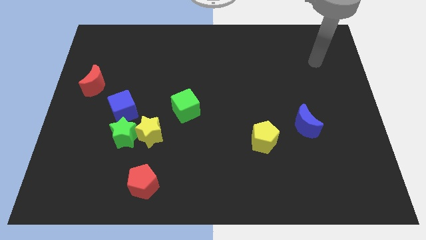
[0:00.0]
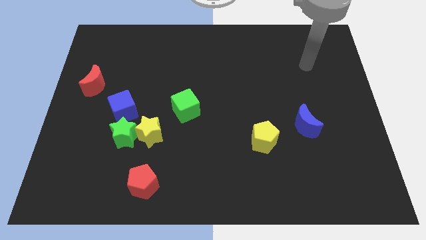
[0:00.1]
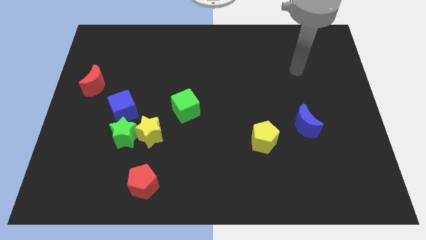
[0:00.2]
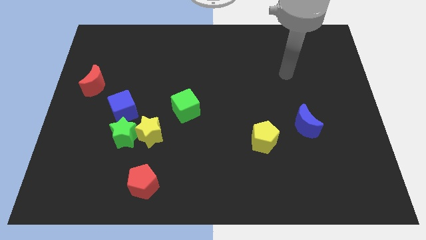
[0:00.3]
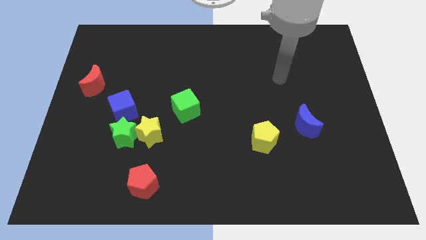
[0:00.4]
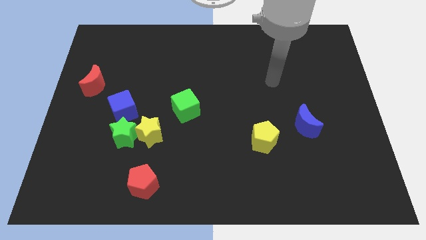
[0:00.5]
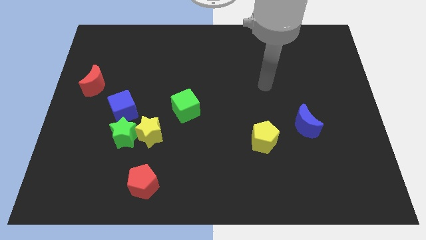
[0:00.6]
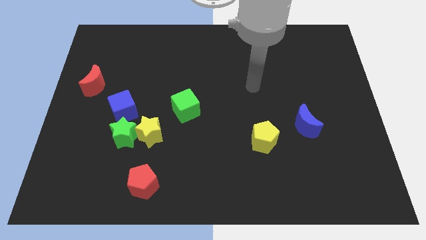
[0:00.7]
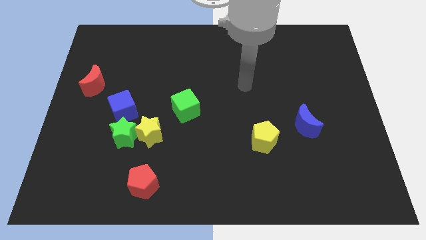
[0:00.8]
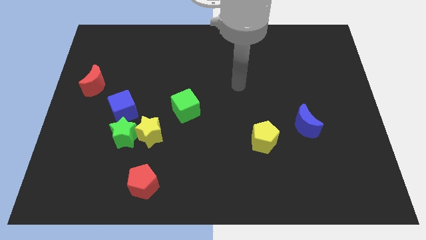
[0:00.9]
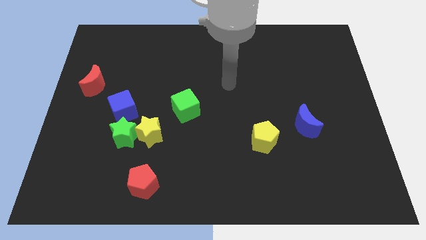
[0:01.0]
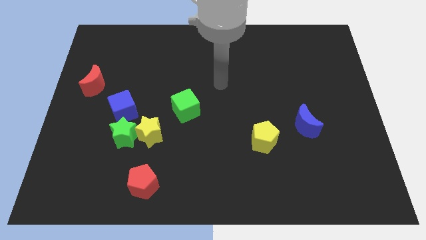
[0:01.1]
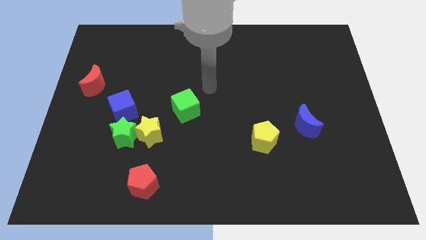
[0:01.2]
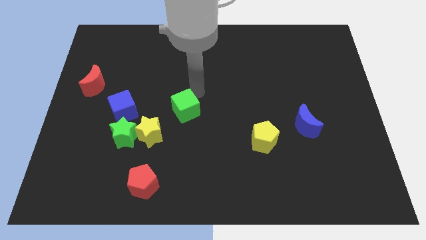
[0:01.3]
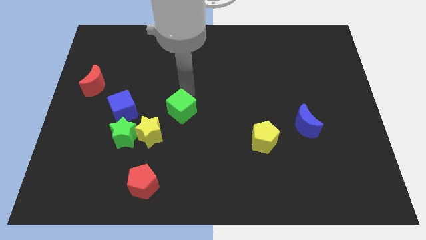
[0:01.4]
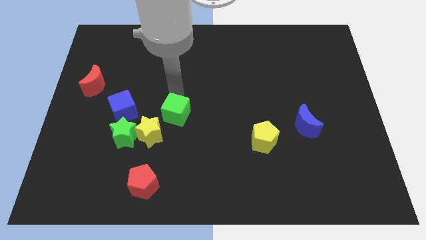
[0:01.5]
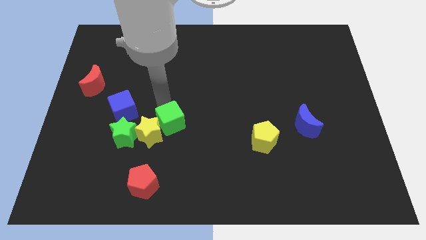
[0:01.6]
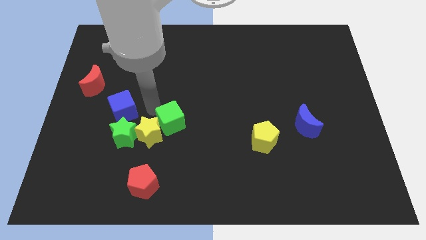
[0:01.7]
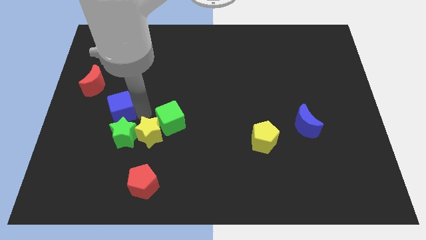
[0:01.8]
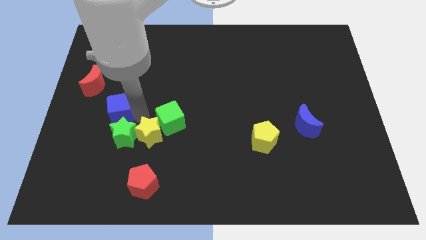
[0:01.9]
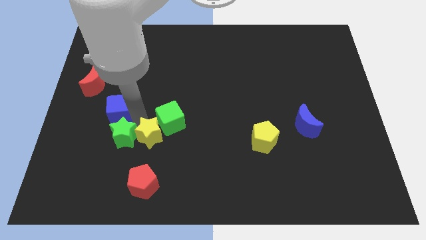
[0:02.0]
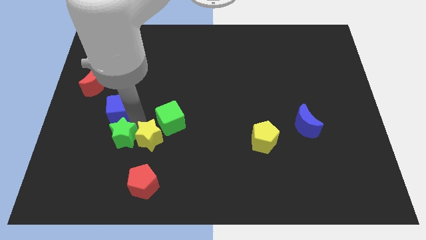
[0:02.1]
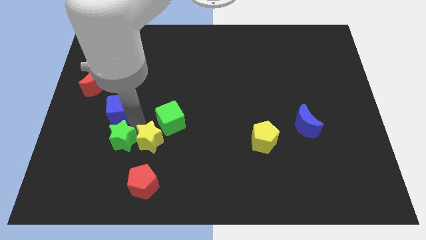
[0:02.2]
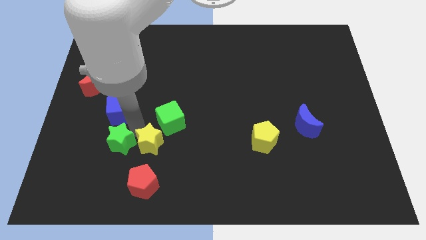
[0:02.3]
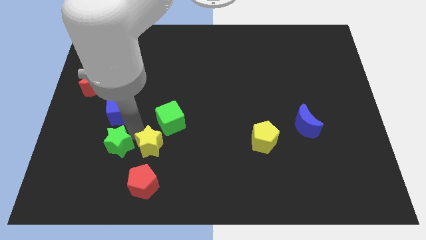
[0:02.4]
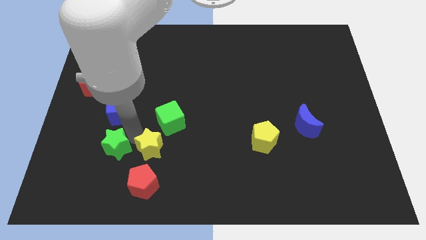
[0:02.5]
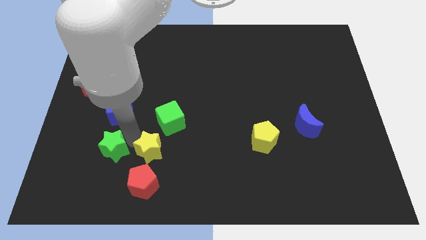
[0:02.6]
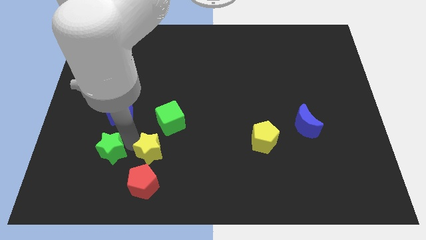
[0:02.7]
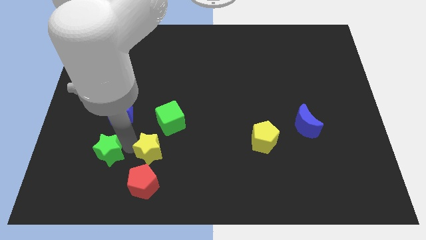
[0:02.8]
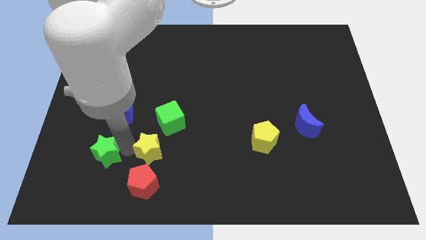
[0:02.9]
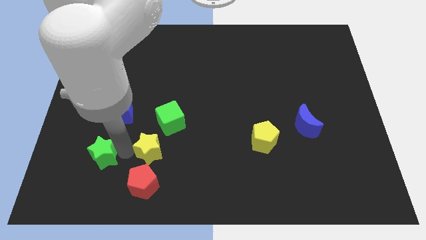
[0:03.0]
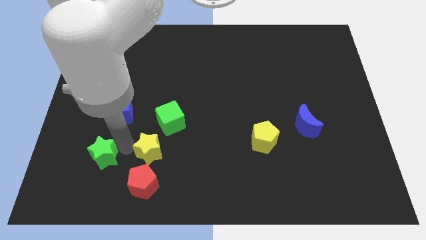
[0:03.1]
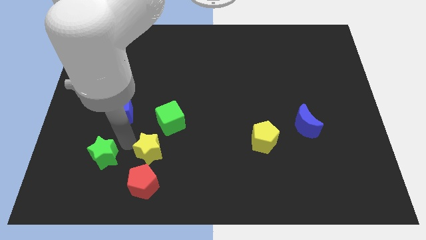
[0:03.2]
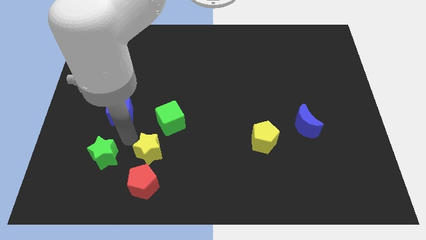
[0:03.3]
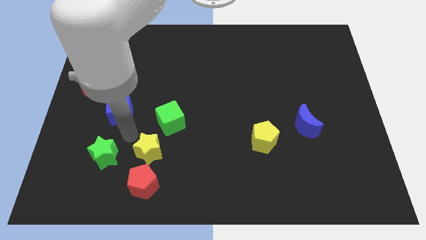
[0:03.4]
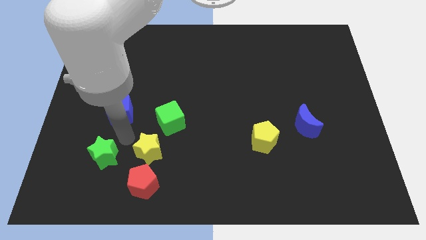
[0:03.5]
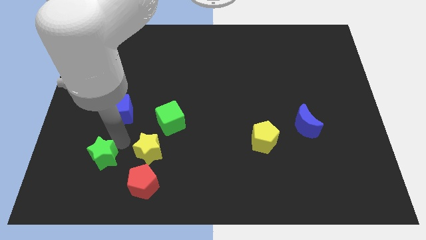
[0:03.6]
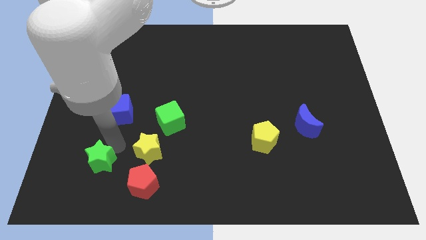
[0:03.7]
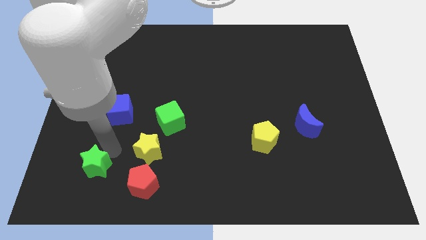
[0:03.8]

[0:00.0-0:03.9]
separate the green star from the yellow star and blue cube

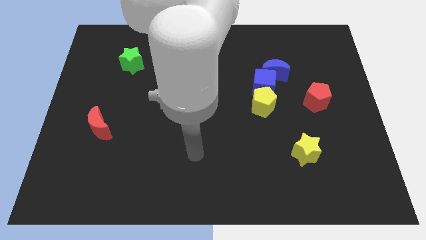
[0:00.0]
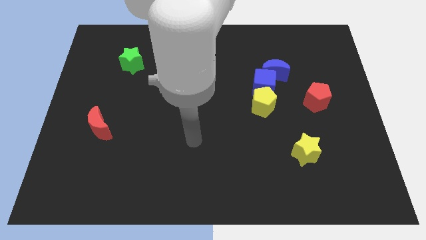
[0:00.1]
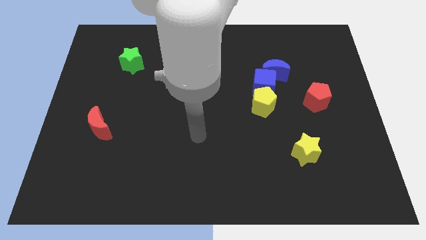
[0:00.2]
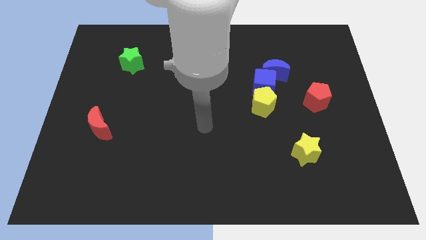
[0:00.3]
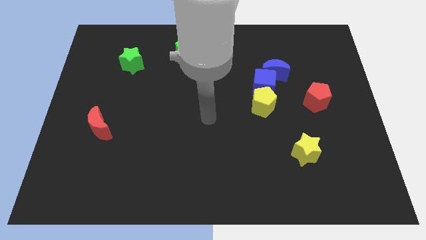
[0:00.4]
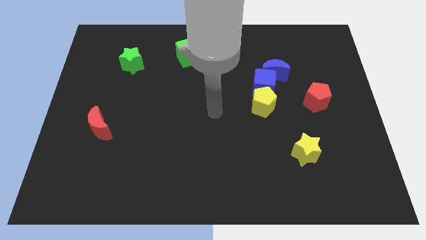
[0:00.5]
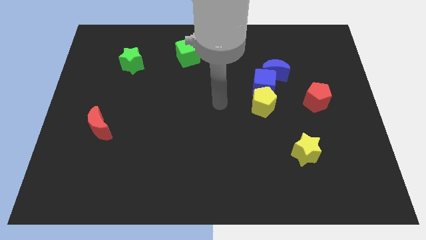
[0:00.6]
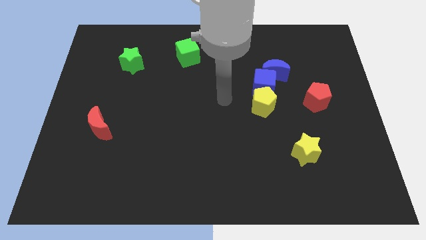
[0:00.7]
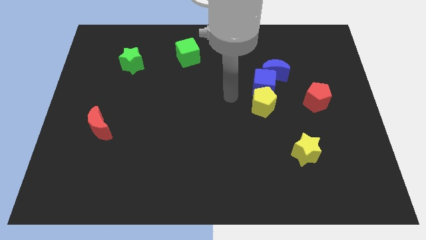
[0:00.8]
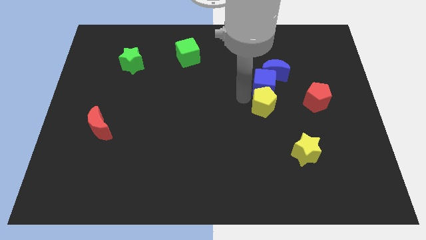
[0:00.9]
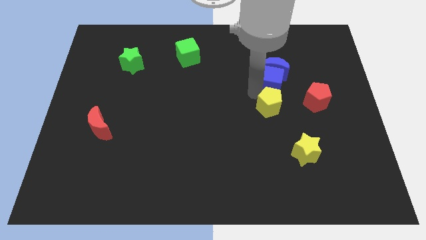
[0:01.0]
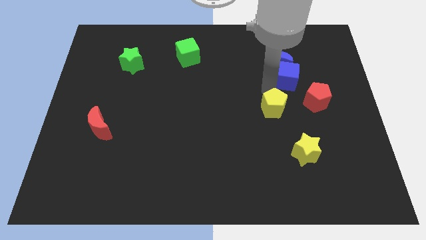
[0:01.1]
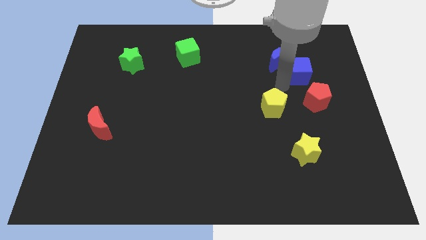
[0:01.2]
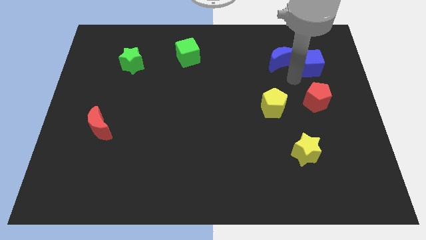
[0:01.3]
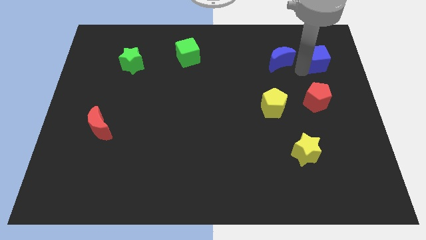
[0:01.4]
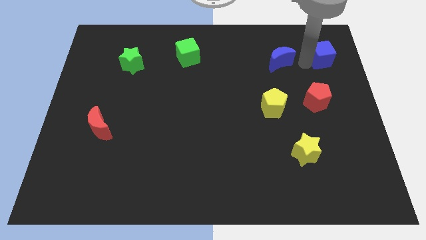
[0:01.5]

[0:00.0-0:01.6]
move the blue moon away from the blue cube

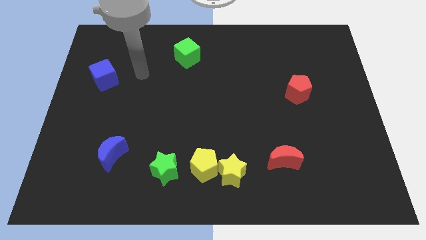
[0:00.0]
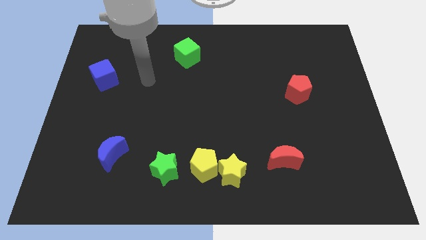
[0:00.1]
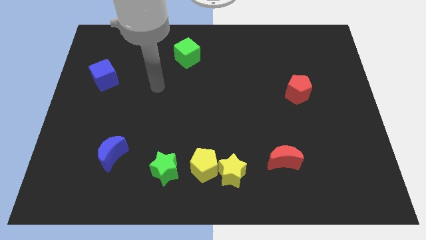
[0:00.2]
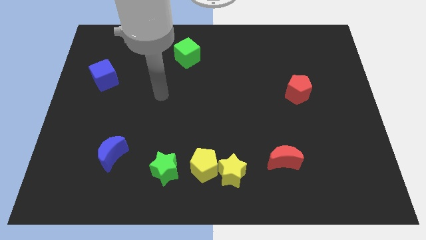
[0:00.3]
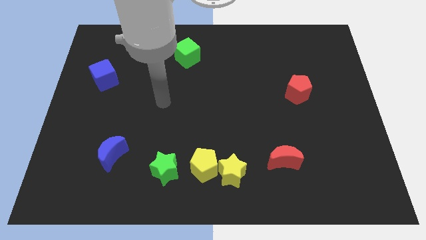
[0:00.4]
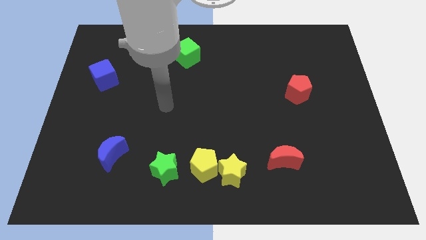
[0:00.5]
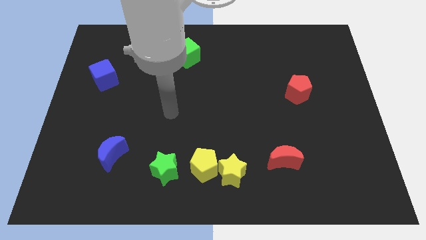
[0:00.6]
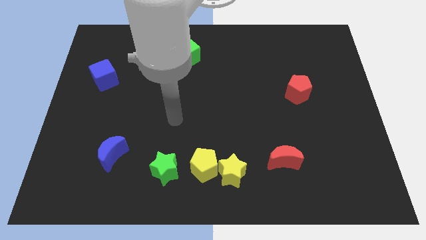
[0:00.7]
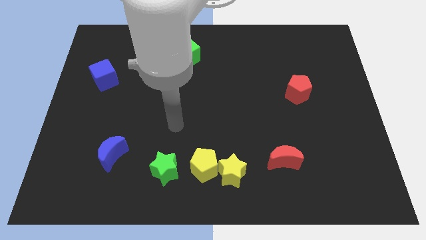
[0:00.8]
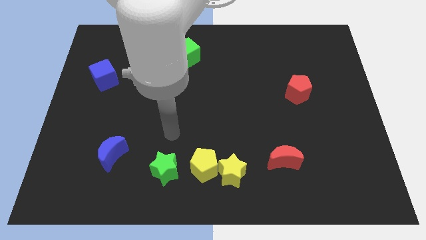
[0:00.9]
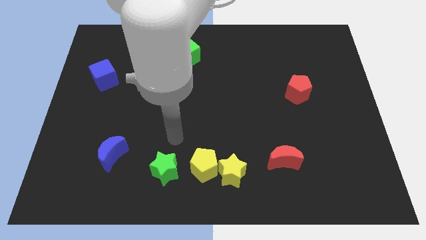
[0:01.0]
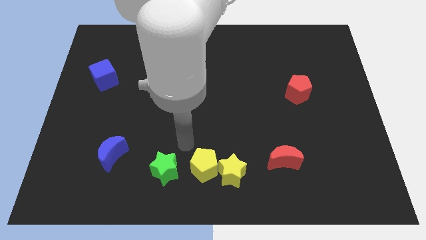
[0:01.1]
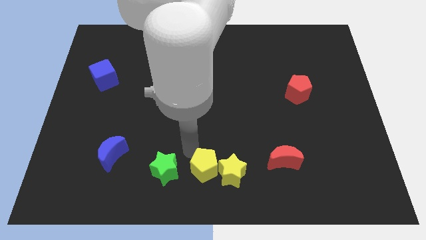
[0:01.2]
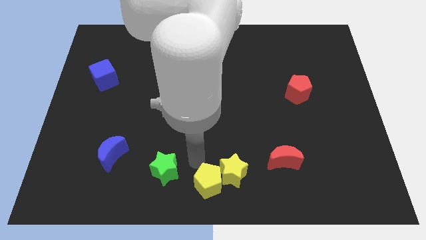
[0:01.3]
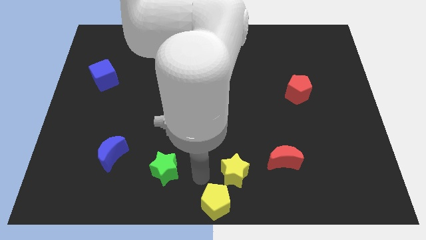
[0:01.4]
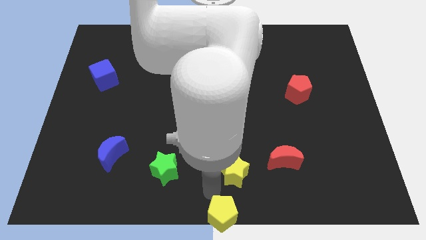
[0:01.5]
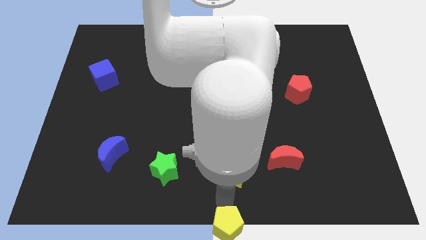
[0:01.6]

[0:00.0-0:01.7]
move the yellow star away from the yellow pentagon

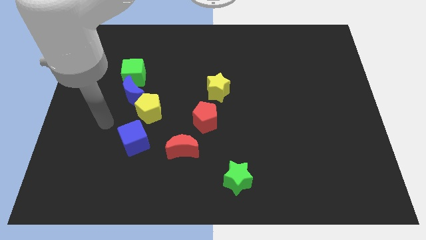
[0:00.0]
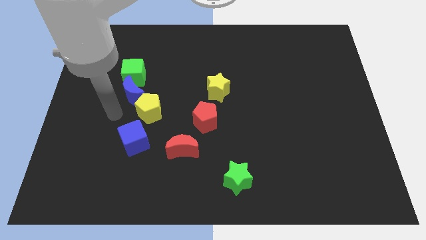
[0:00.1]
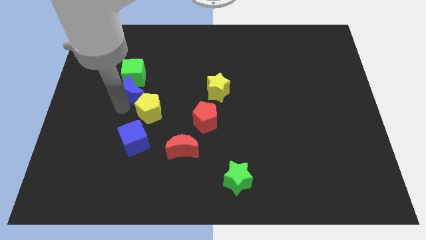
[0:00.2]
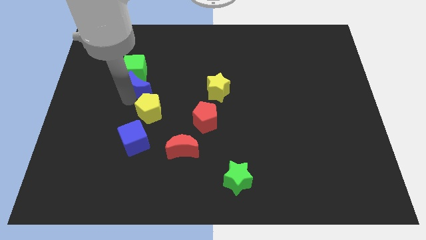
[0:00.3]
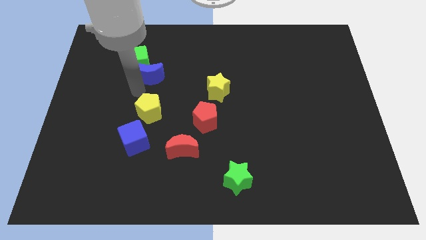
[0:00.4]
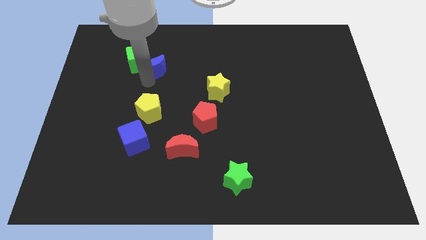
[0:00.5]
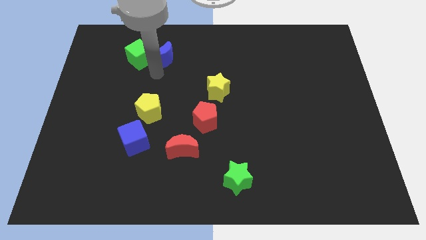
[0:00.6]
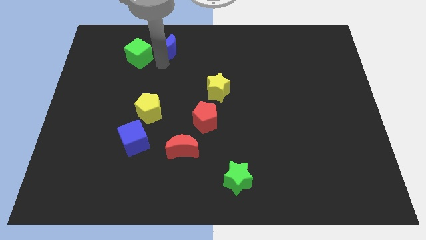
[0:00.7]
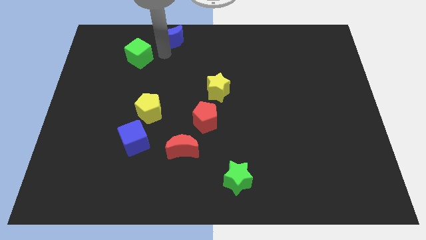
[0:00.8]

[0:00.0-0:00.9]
move the green cube away from the blue moon

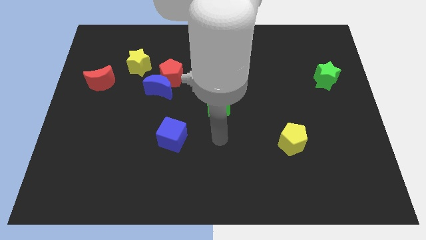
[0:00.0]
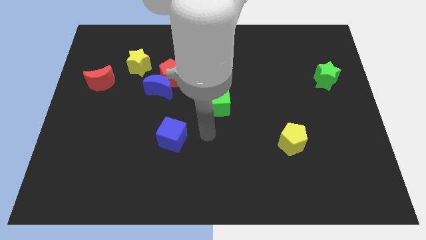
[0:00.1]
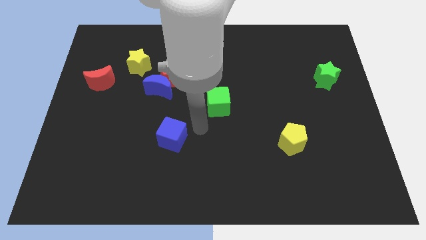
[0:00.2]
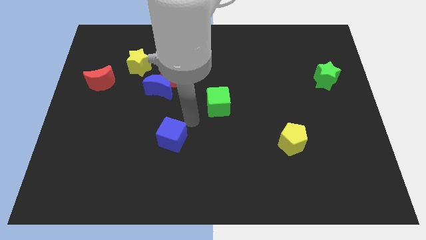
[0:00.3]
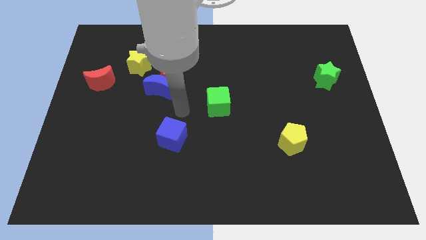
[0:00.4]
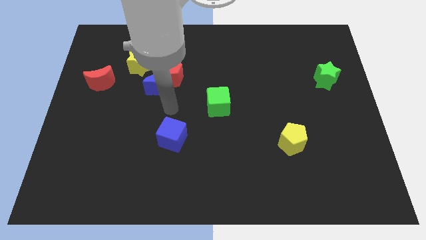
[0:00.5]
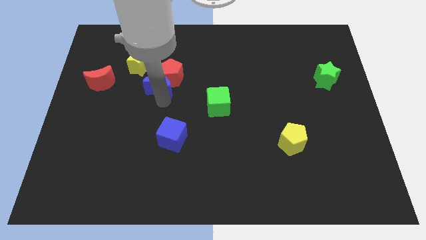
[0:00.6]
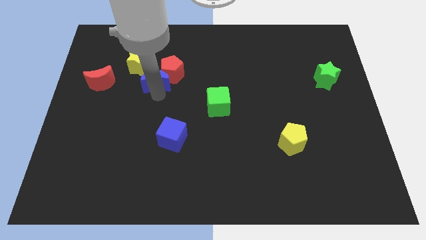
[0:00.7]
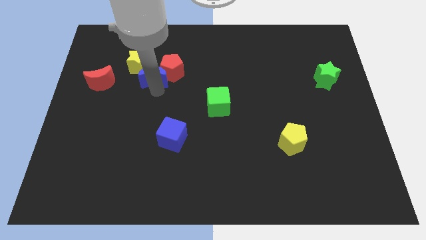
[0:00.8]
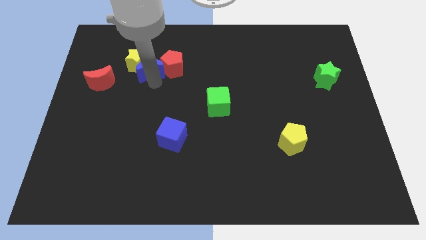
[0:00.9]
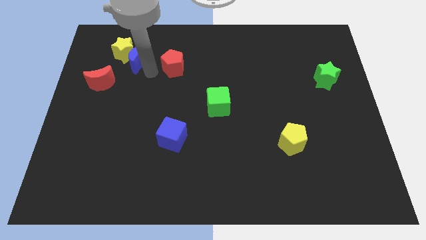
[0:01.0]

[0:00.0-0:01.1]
move the red pentagon away from the blue moon and yellow star
